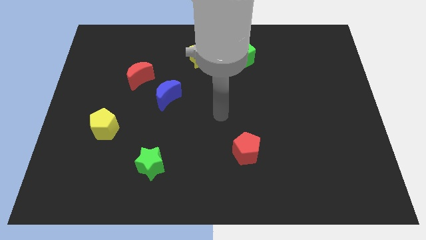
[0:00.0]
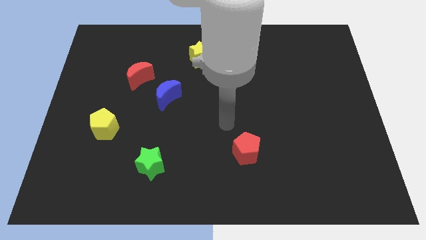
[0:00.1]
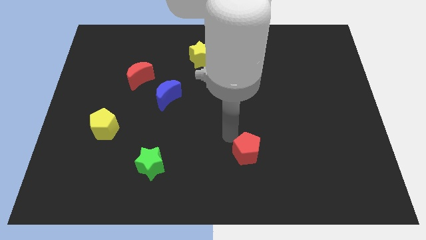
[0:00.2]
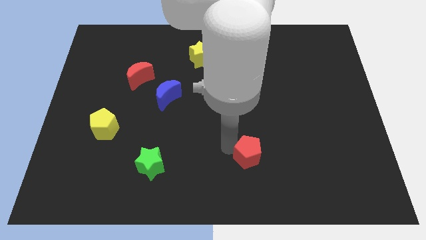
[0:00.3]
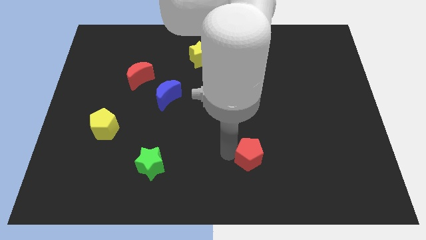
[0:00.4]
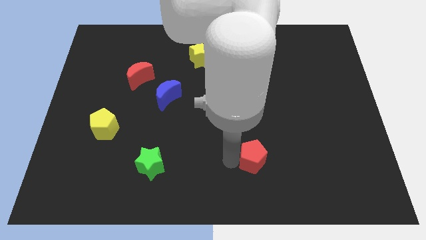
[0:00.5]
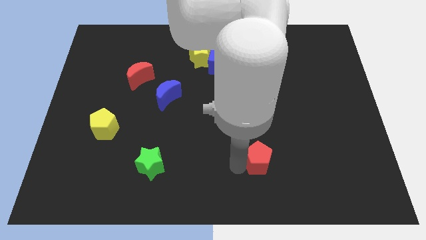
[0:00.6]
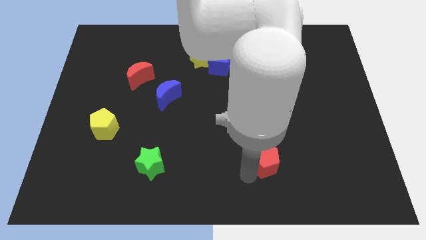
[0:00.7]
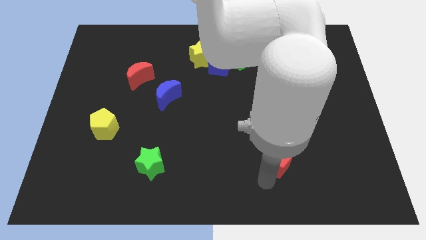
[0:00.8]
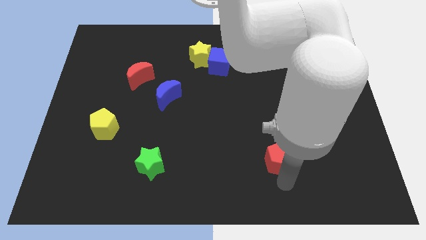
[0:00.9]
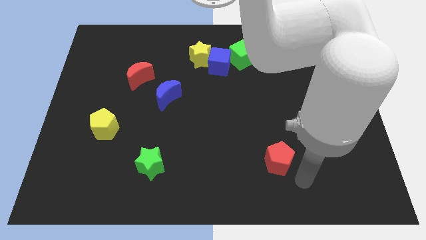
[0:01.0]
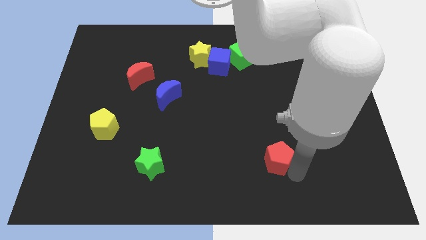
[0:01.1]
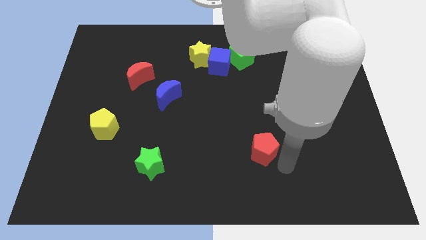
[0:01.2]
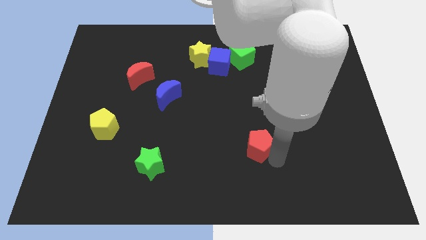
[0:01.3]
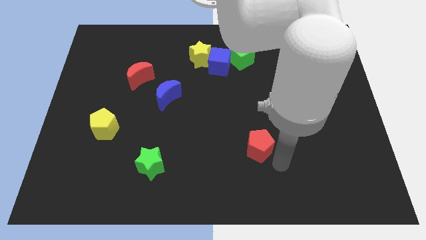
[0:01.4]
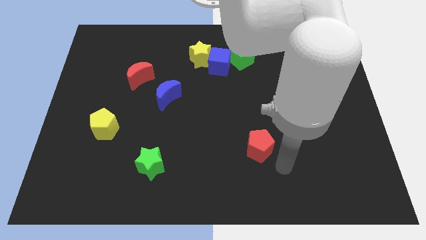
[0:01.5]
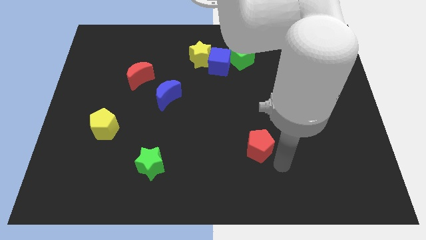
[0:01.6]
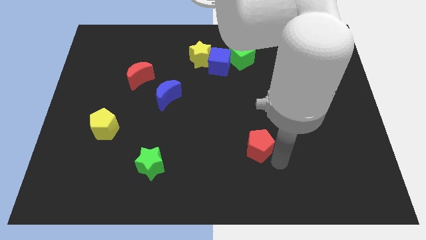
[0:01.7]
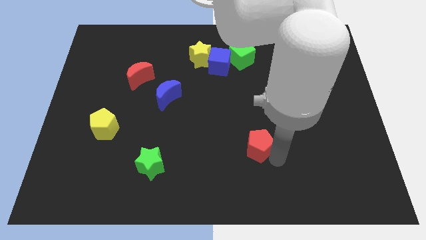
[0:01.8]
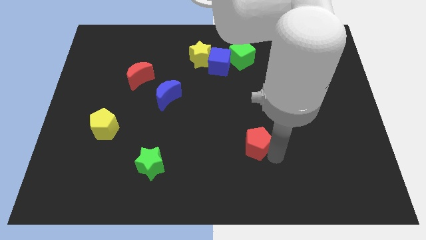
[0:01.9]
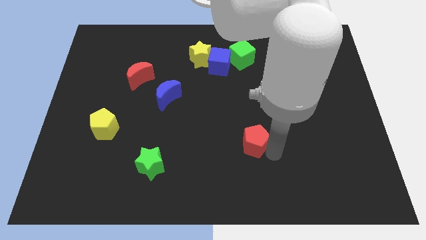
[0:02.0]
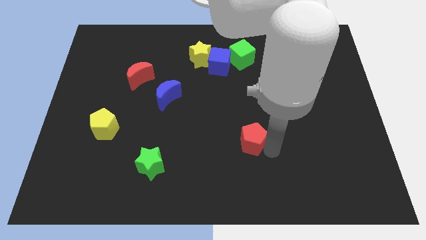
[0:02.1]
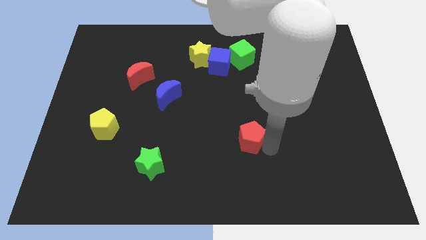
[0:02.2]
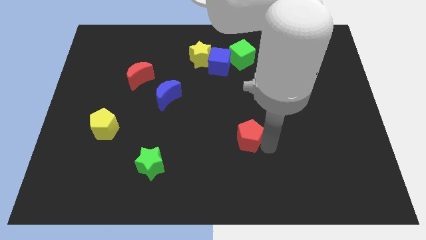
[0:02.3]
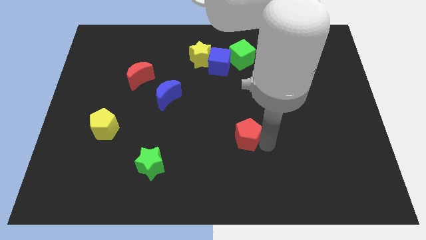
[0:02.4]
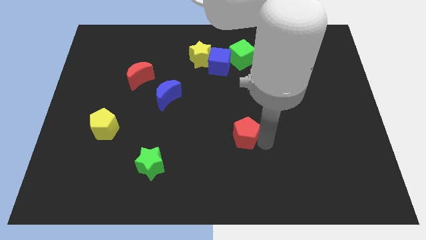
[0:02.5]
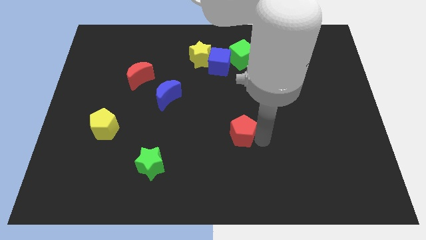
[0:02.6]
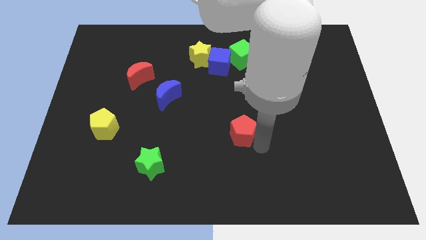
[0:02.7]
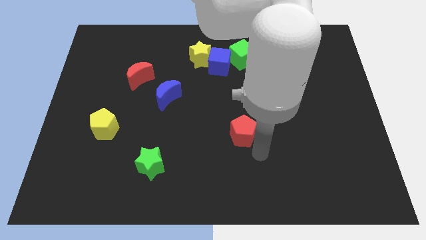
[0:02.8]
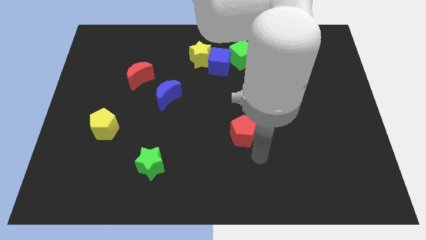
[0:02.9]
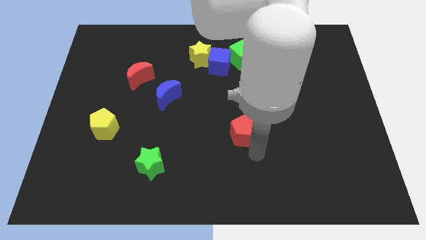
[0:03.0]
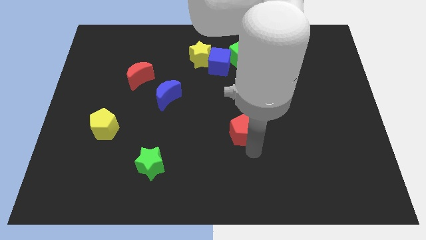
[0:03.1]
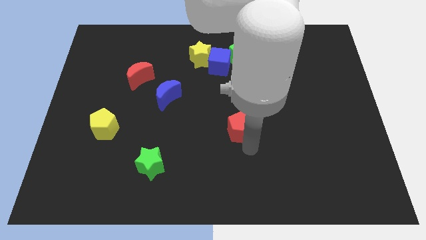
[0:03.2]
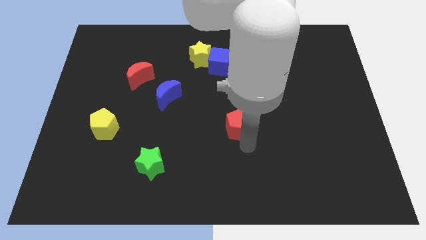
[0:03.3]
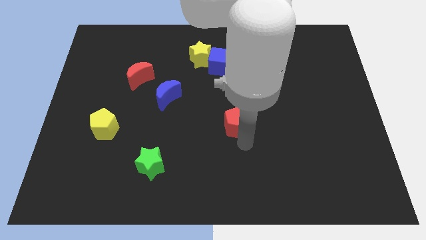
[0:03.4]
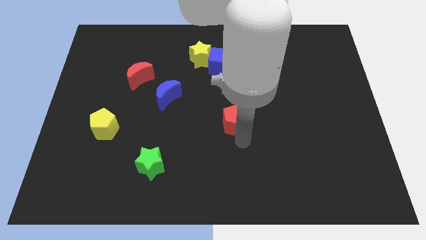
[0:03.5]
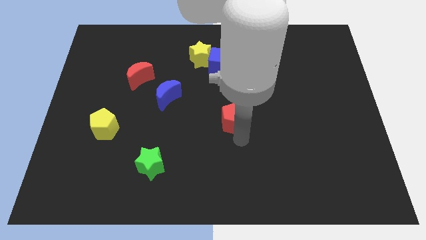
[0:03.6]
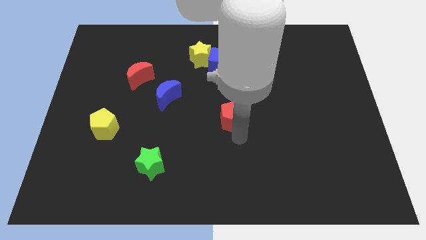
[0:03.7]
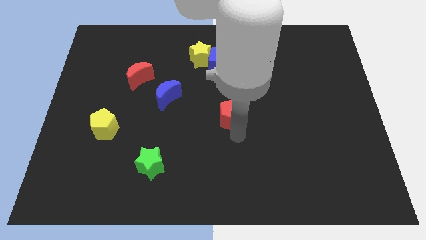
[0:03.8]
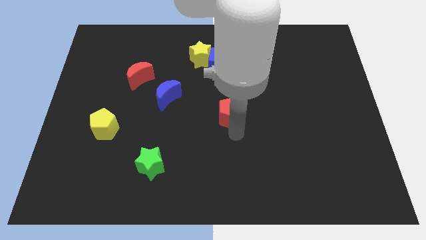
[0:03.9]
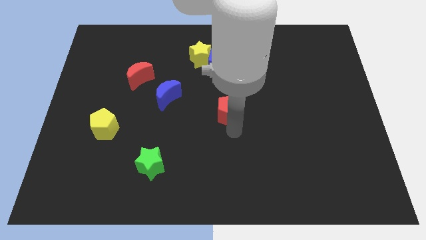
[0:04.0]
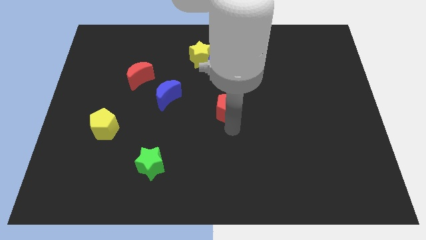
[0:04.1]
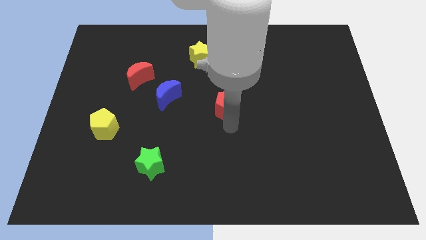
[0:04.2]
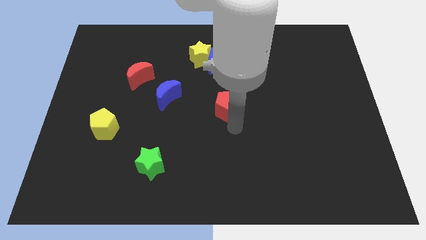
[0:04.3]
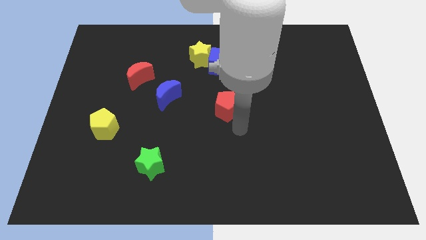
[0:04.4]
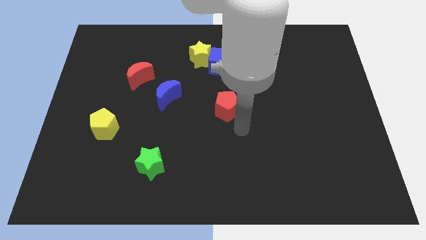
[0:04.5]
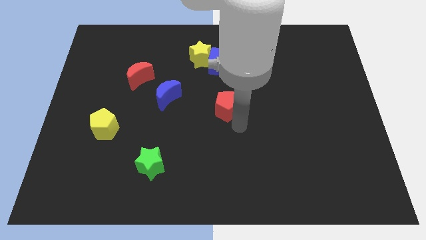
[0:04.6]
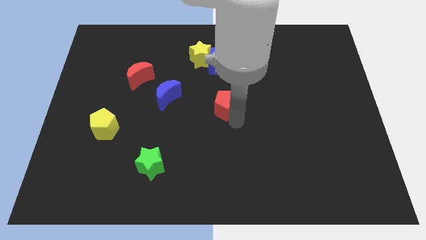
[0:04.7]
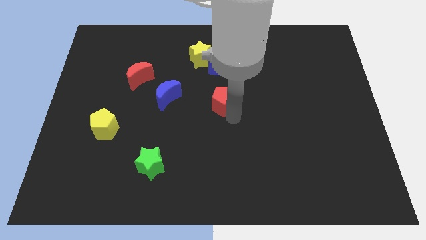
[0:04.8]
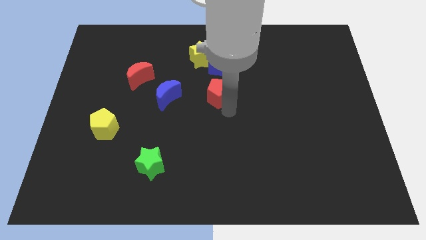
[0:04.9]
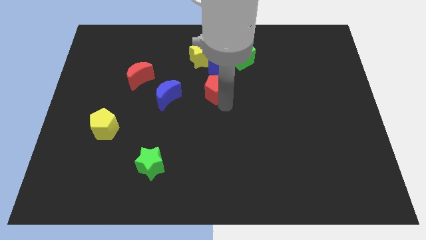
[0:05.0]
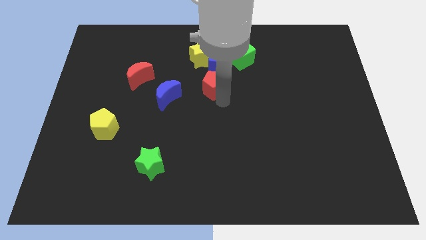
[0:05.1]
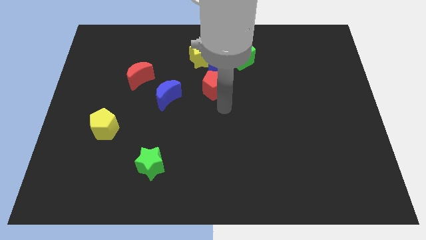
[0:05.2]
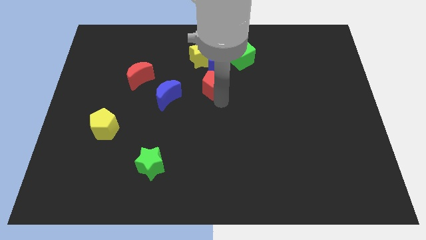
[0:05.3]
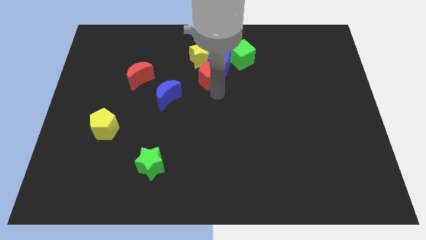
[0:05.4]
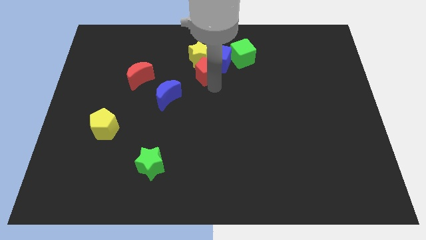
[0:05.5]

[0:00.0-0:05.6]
slide the red pentagon next to the yellow star

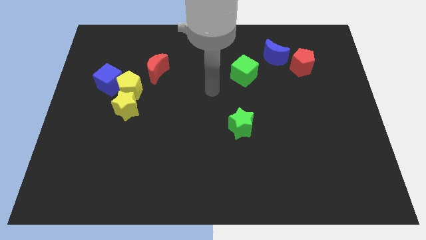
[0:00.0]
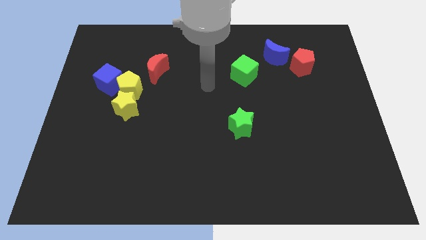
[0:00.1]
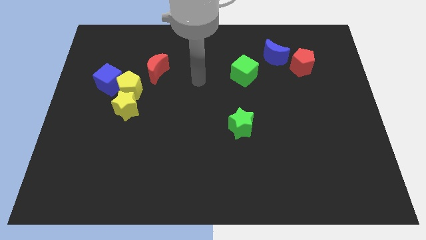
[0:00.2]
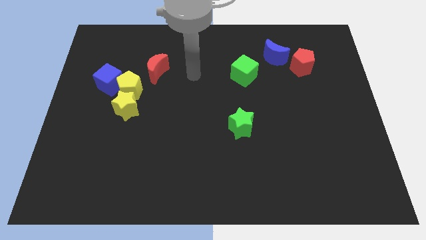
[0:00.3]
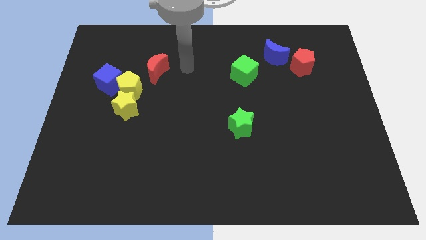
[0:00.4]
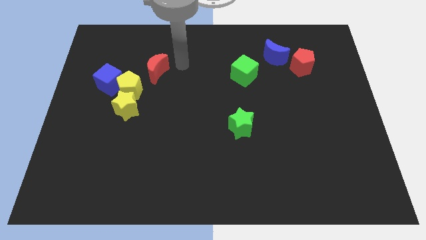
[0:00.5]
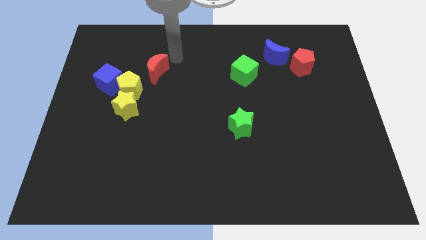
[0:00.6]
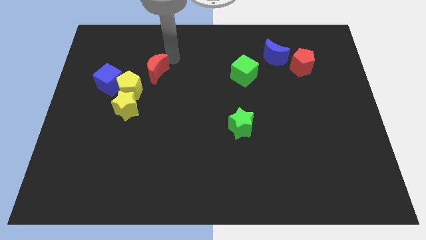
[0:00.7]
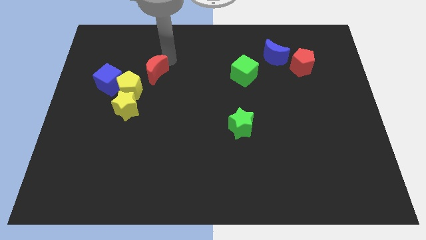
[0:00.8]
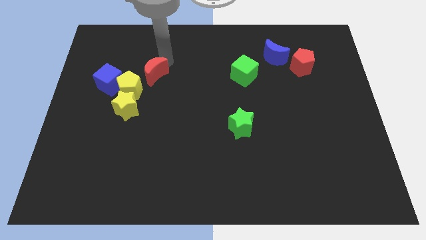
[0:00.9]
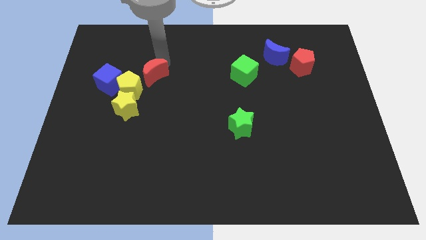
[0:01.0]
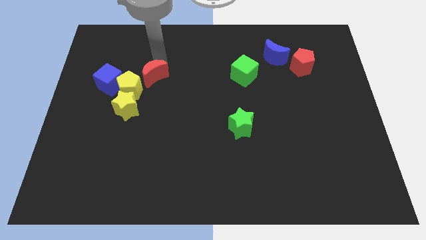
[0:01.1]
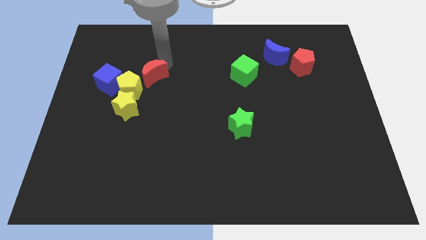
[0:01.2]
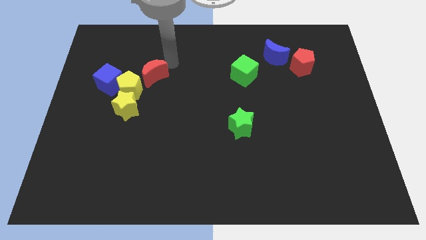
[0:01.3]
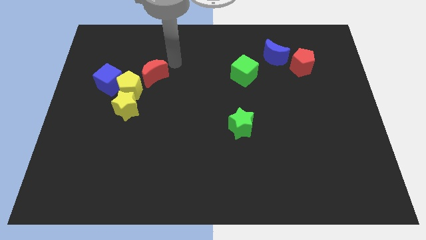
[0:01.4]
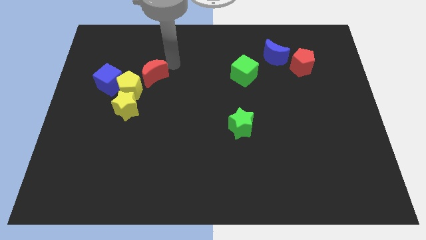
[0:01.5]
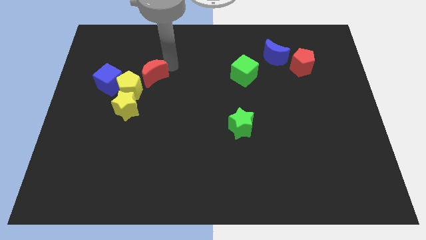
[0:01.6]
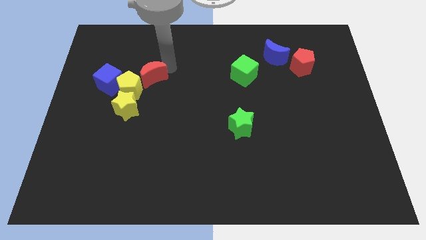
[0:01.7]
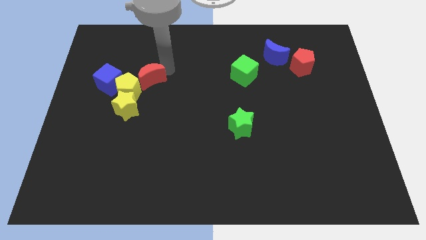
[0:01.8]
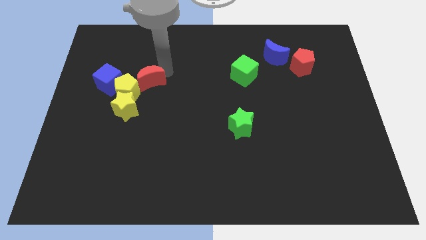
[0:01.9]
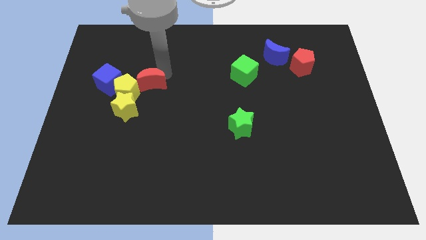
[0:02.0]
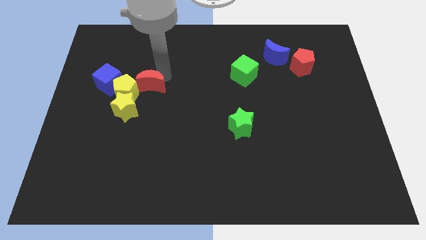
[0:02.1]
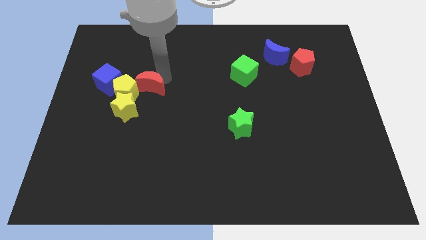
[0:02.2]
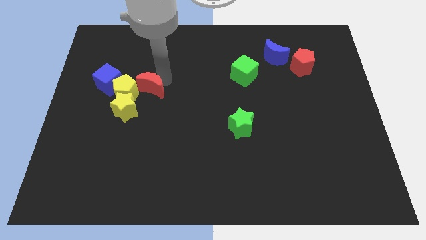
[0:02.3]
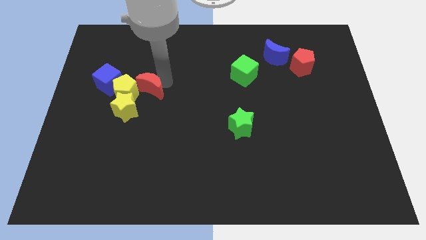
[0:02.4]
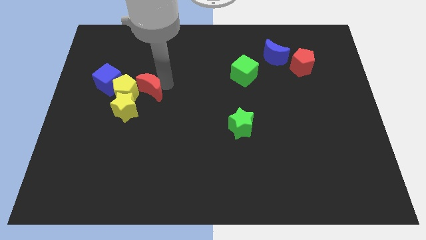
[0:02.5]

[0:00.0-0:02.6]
push the red moon towards the yellow pentagon
